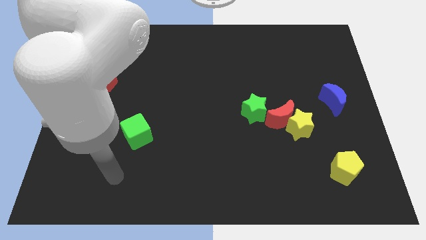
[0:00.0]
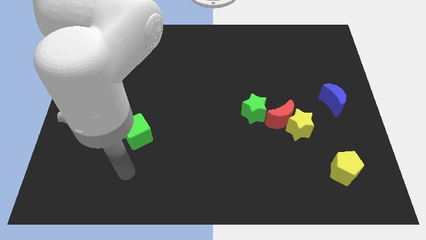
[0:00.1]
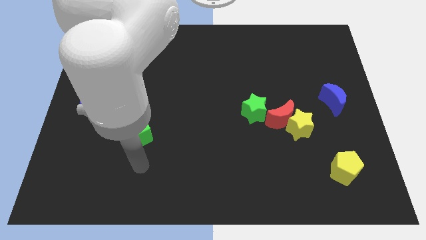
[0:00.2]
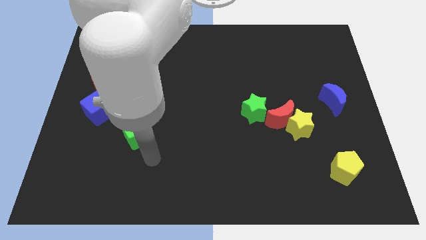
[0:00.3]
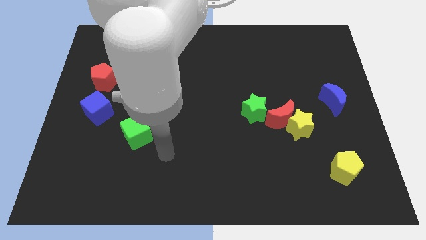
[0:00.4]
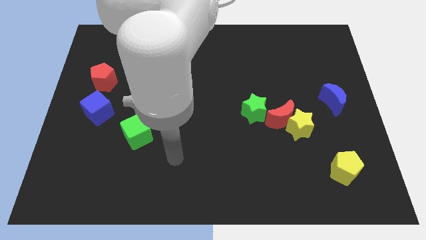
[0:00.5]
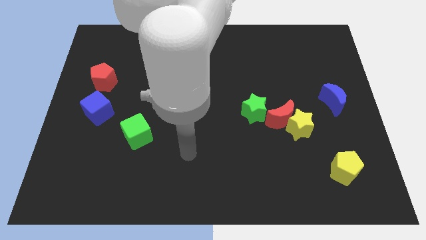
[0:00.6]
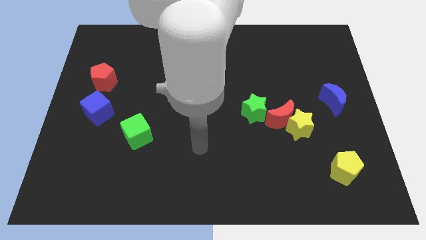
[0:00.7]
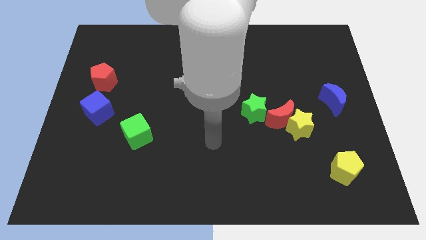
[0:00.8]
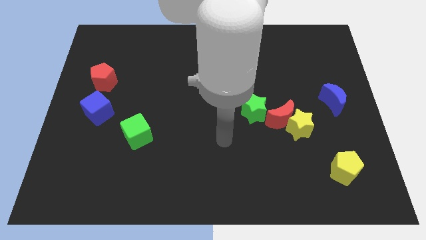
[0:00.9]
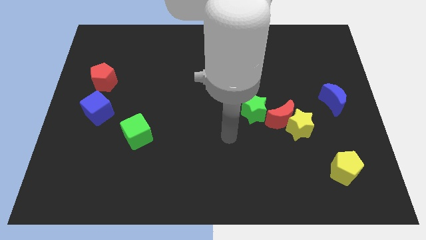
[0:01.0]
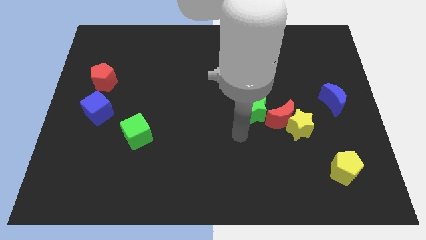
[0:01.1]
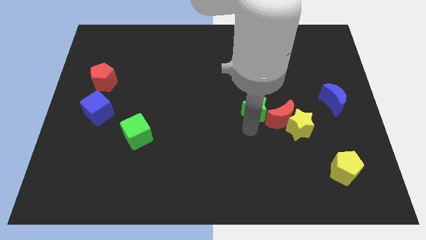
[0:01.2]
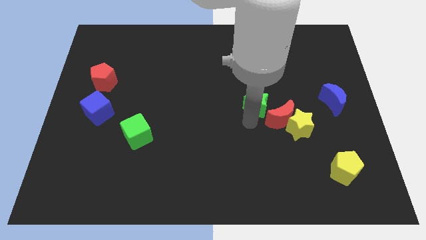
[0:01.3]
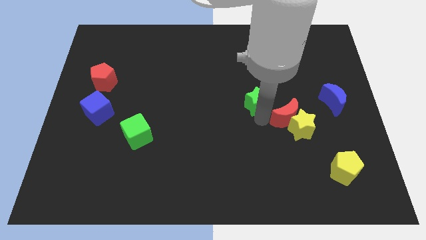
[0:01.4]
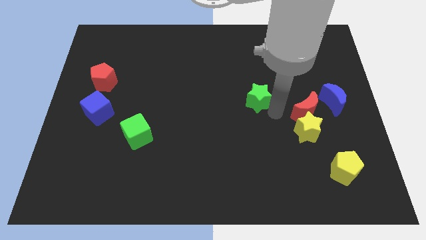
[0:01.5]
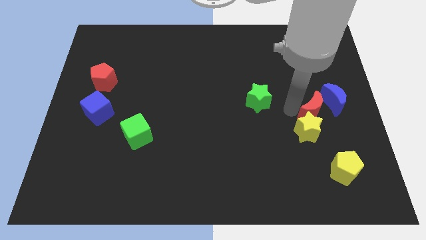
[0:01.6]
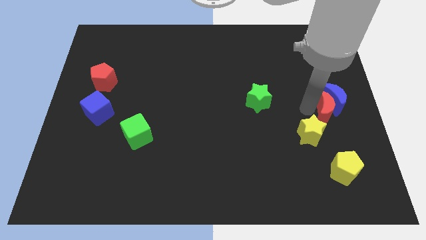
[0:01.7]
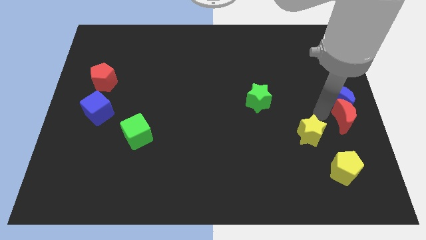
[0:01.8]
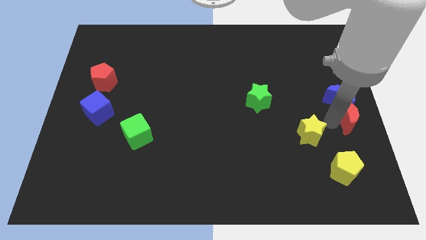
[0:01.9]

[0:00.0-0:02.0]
move the yellow star away from the red moon

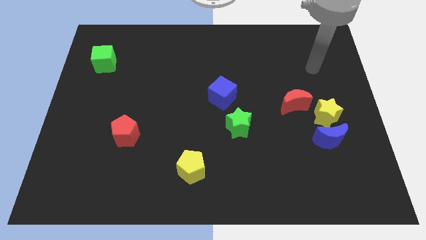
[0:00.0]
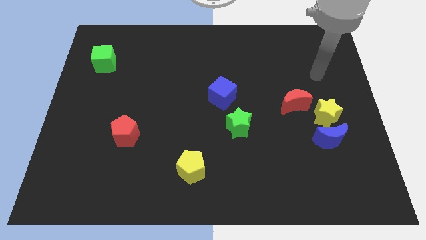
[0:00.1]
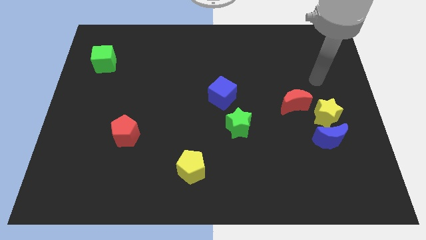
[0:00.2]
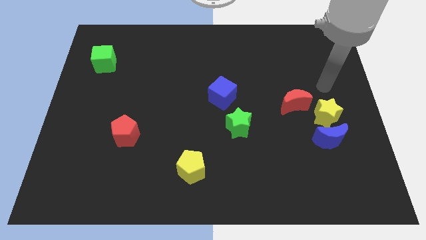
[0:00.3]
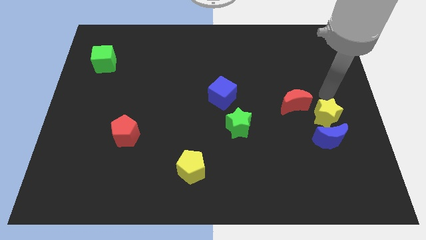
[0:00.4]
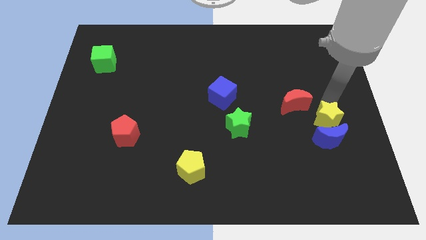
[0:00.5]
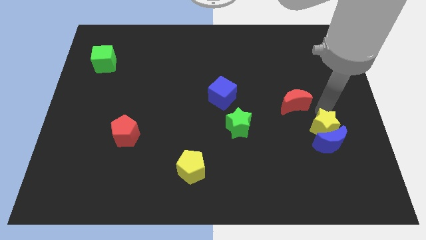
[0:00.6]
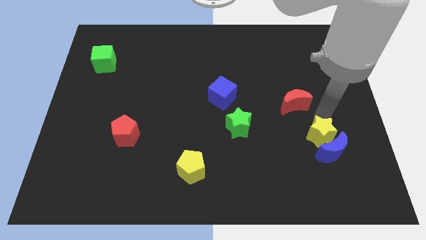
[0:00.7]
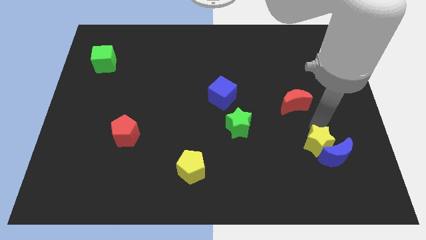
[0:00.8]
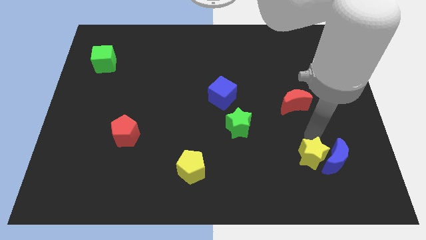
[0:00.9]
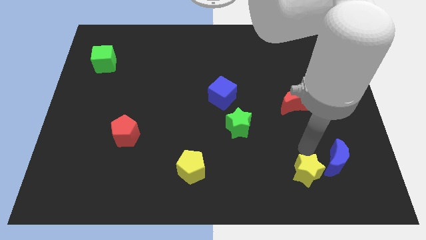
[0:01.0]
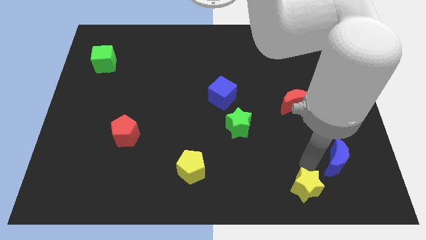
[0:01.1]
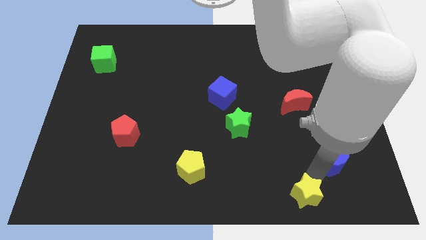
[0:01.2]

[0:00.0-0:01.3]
pull the blue moon apart from the yellow star

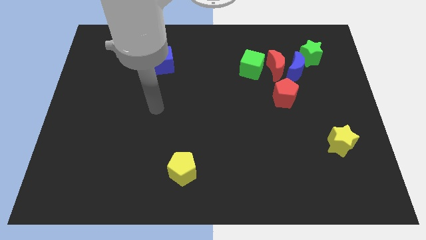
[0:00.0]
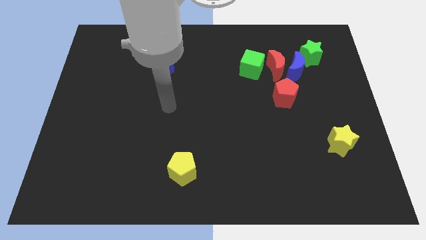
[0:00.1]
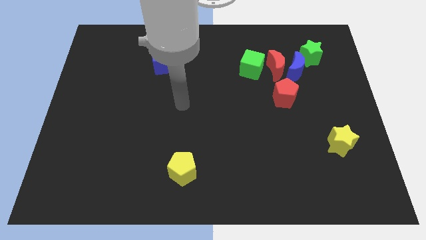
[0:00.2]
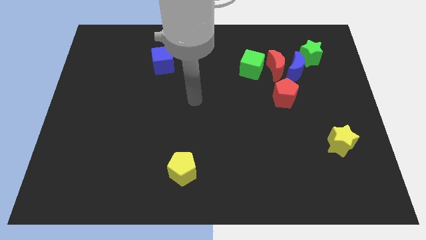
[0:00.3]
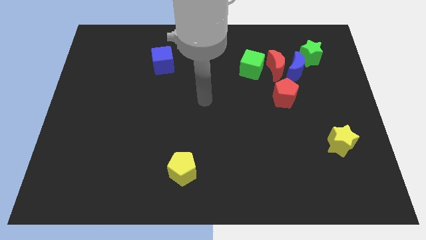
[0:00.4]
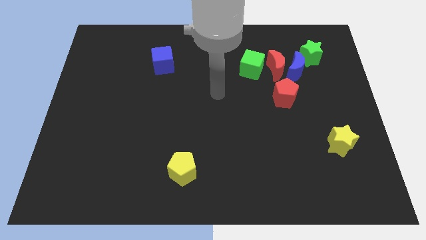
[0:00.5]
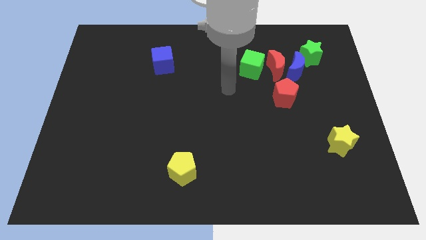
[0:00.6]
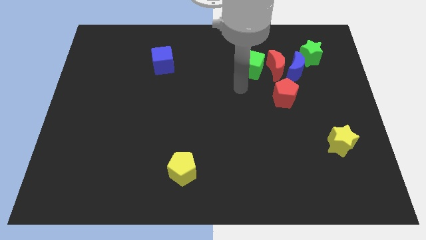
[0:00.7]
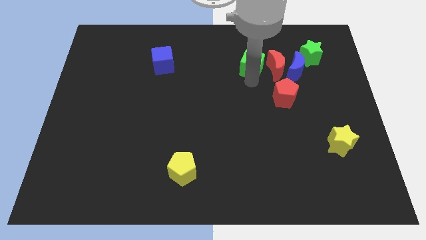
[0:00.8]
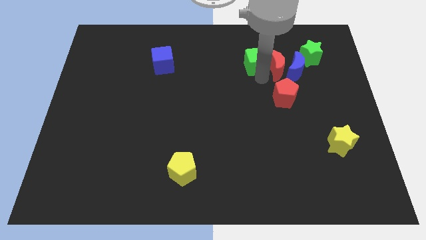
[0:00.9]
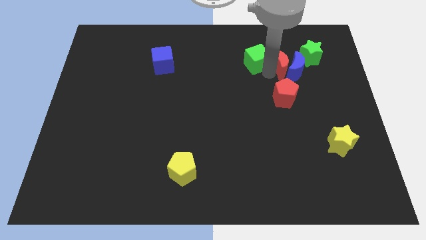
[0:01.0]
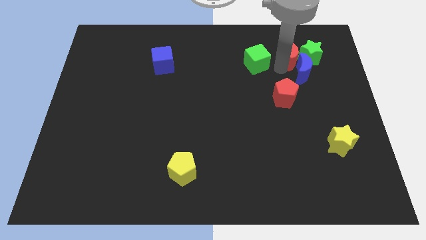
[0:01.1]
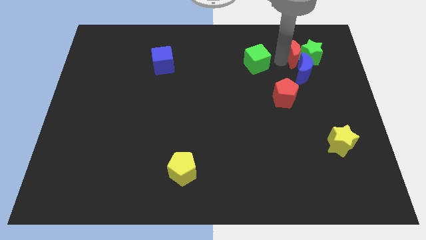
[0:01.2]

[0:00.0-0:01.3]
pull the green cube apart from the red moon

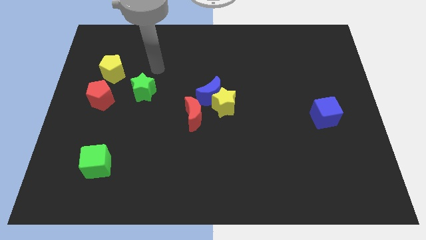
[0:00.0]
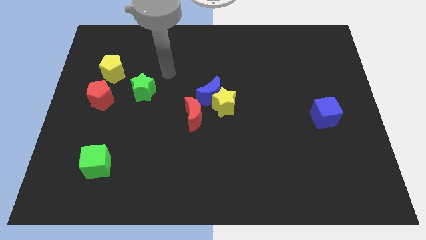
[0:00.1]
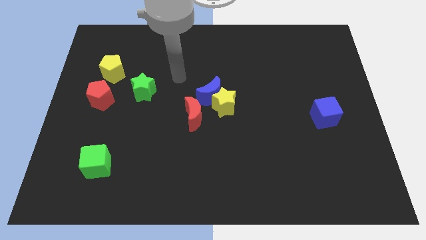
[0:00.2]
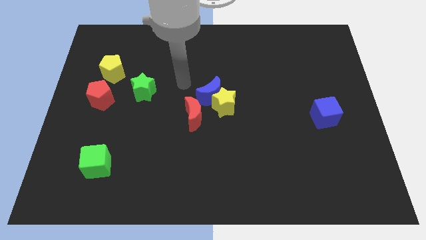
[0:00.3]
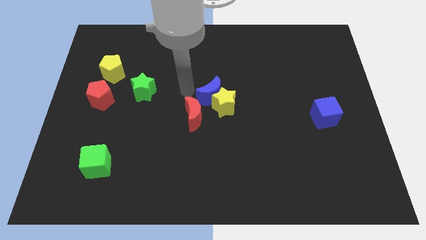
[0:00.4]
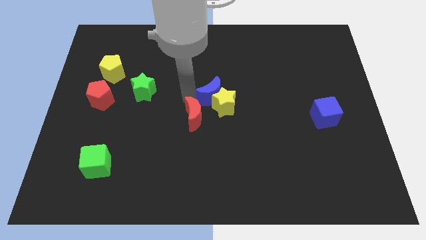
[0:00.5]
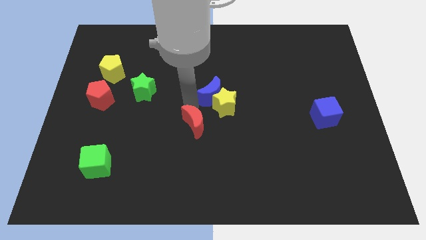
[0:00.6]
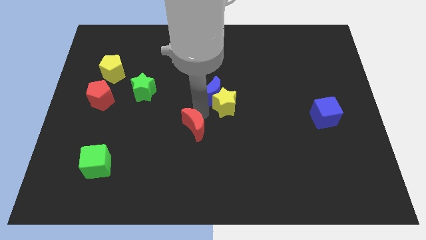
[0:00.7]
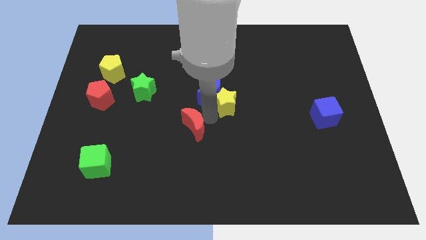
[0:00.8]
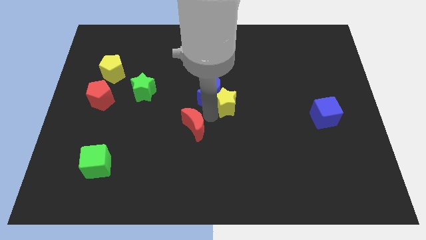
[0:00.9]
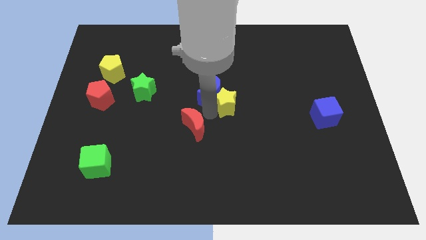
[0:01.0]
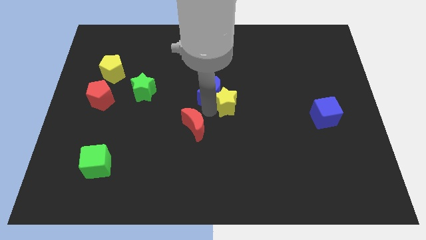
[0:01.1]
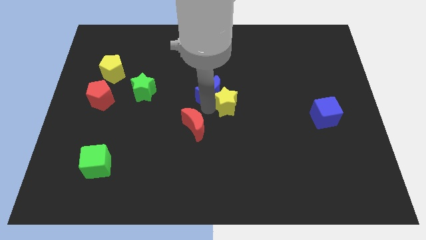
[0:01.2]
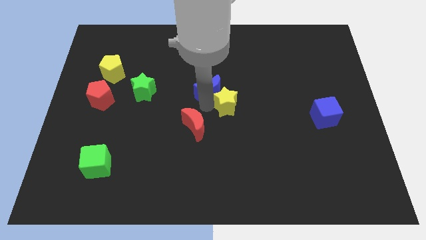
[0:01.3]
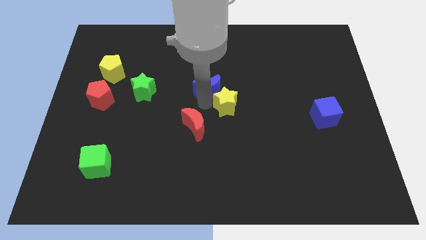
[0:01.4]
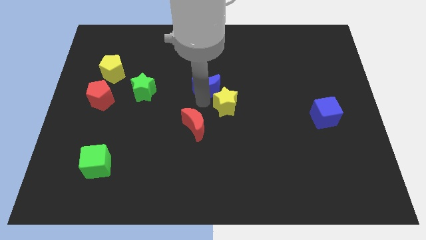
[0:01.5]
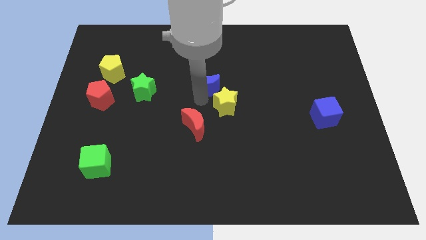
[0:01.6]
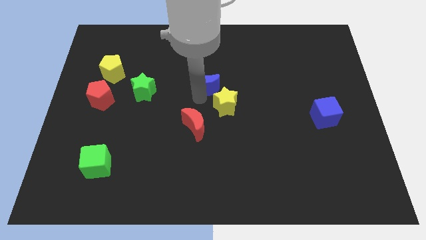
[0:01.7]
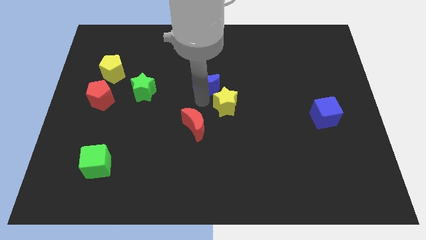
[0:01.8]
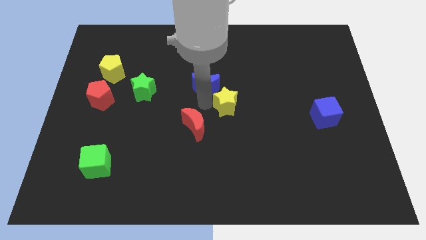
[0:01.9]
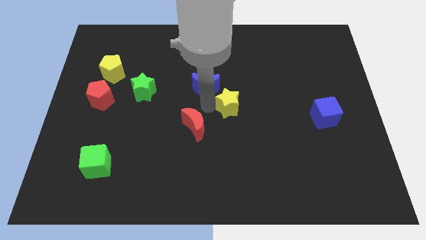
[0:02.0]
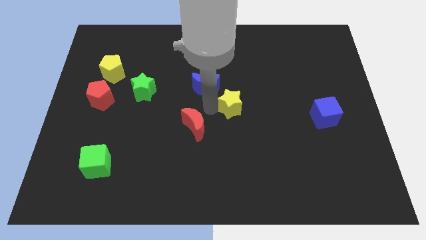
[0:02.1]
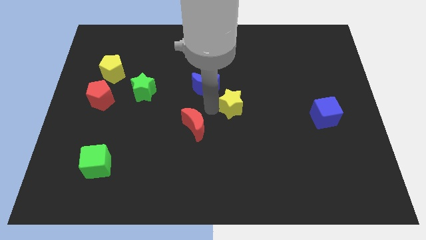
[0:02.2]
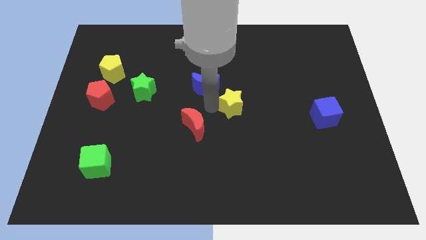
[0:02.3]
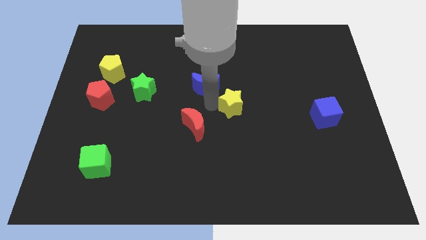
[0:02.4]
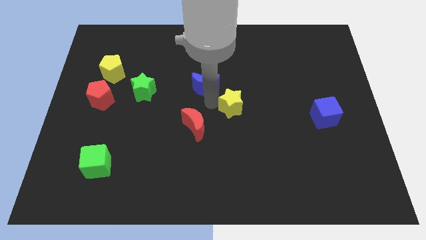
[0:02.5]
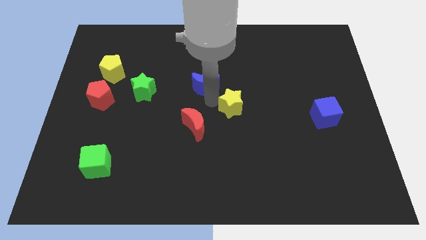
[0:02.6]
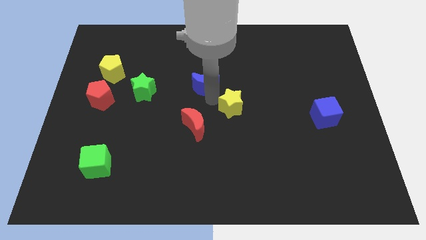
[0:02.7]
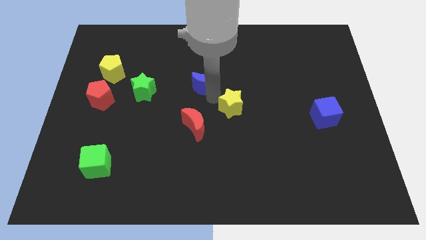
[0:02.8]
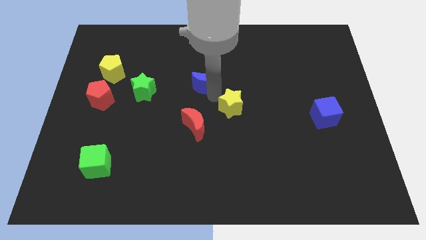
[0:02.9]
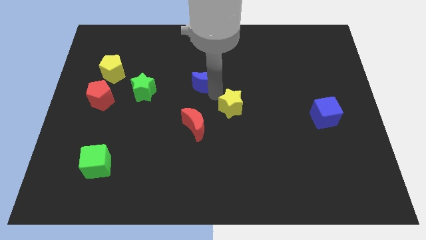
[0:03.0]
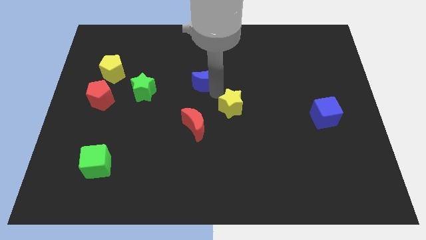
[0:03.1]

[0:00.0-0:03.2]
move the blue moon away from the yellow star and red moon

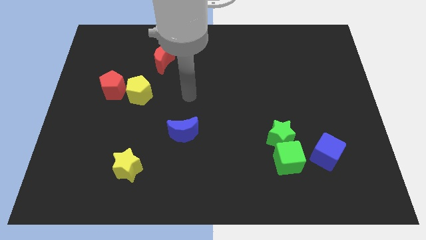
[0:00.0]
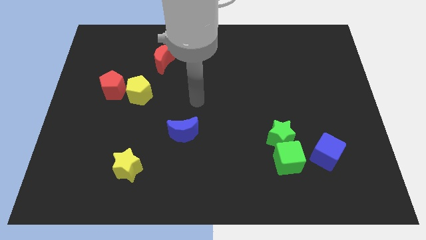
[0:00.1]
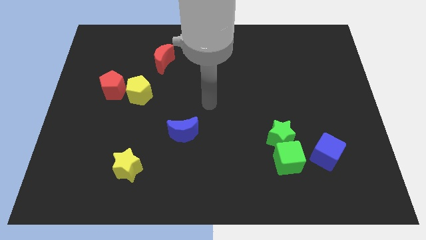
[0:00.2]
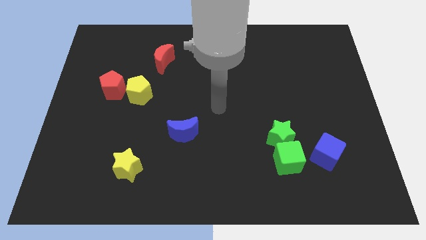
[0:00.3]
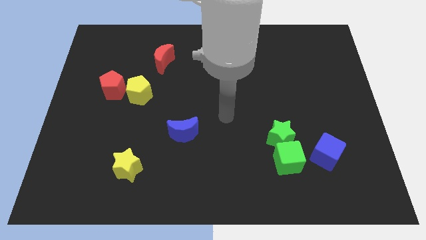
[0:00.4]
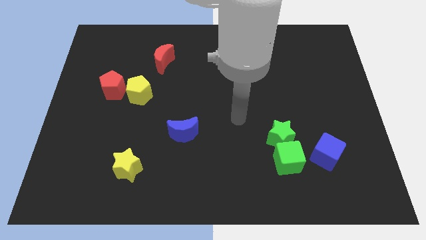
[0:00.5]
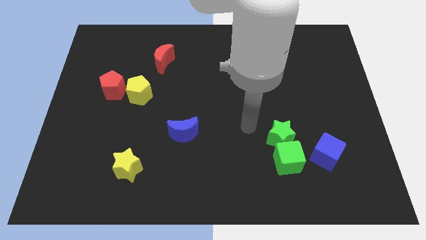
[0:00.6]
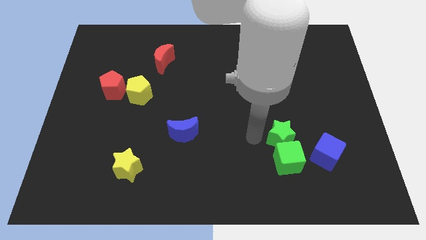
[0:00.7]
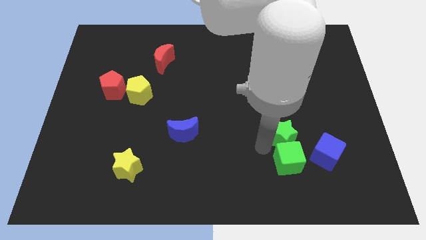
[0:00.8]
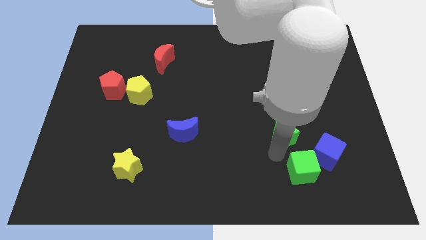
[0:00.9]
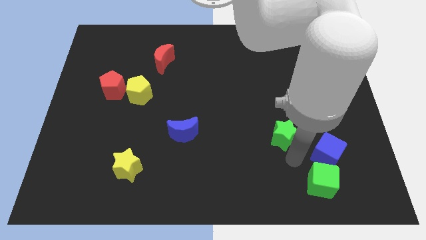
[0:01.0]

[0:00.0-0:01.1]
pull the green star apart from the green cube

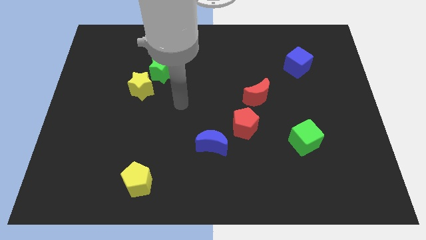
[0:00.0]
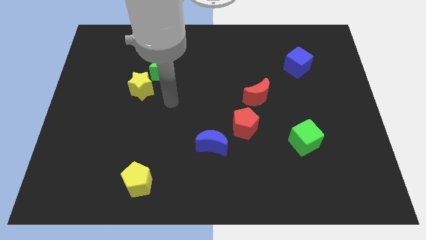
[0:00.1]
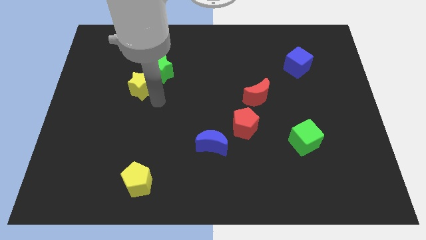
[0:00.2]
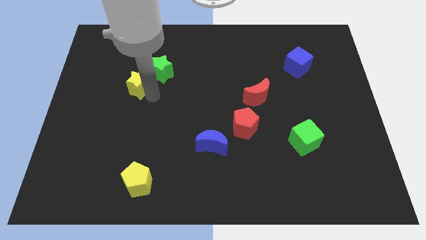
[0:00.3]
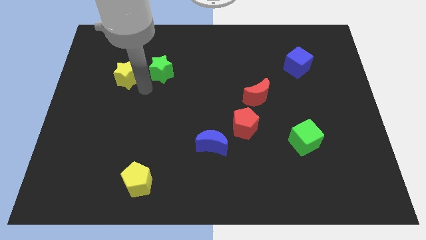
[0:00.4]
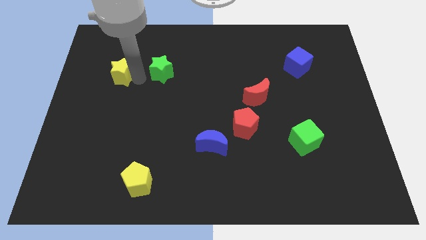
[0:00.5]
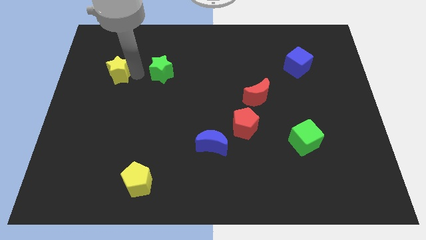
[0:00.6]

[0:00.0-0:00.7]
pull the green star apart from the yellow star
